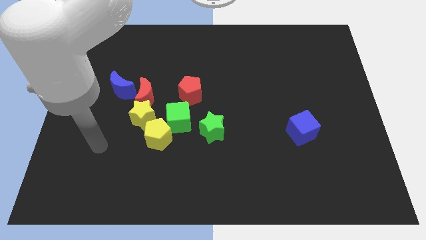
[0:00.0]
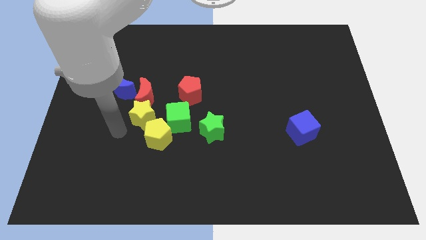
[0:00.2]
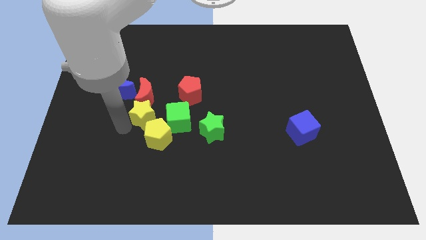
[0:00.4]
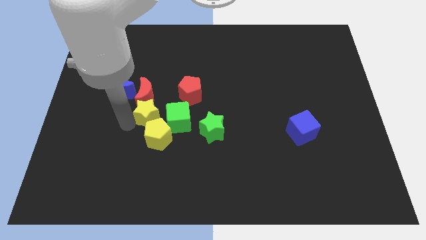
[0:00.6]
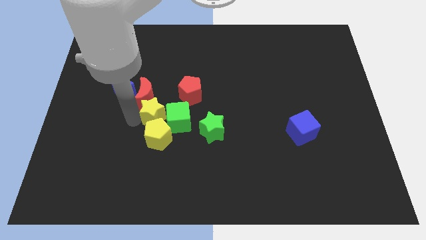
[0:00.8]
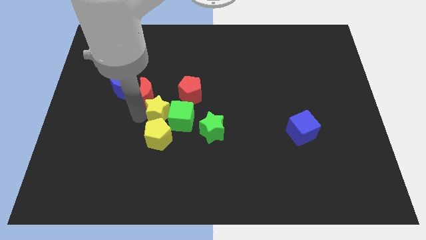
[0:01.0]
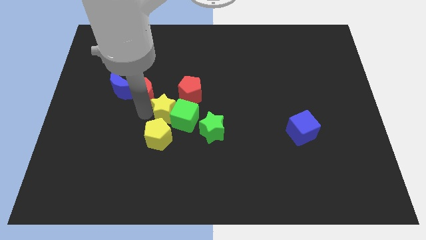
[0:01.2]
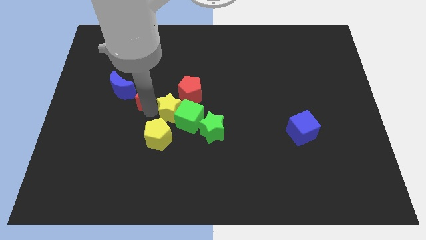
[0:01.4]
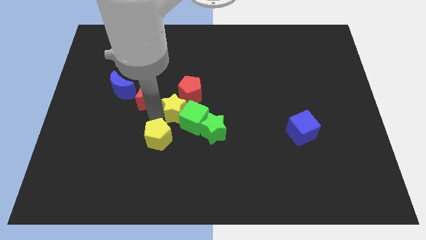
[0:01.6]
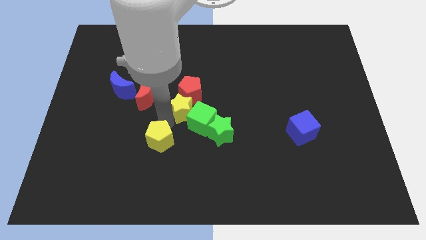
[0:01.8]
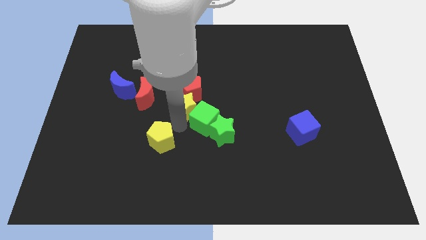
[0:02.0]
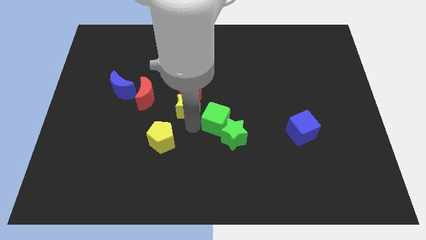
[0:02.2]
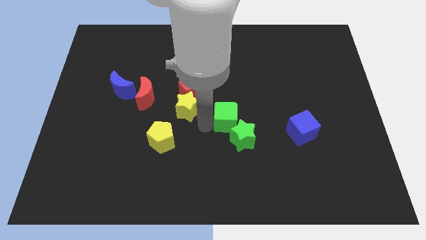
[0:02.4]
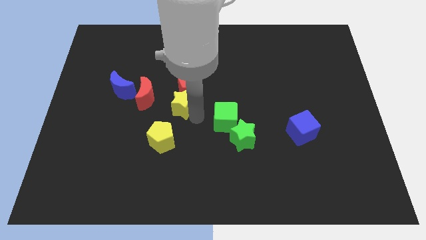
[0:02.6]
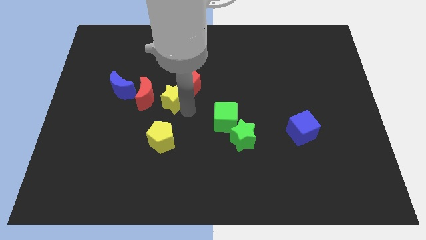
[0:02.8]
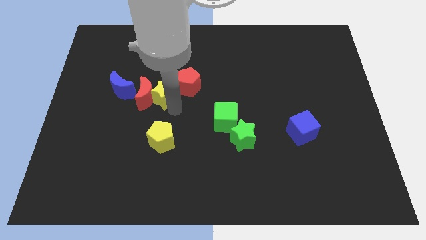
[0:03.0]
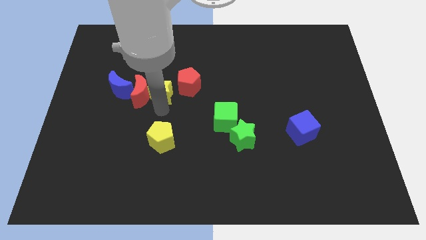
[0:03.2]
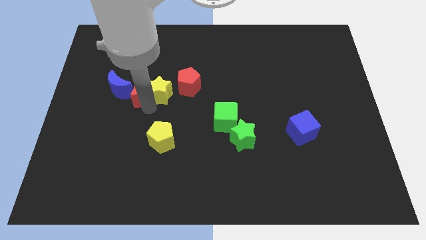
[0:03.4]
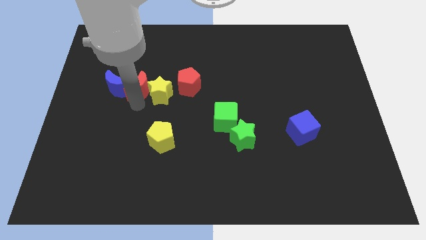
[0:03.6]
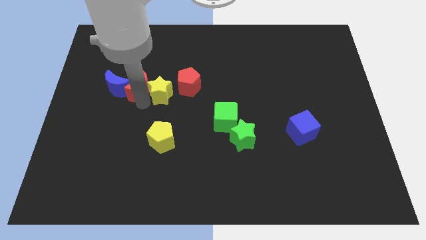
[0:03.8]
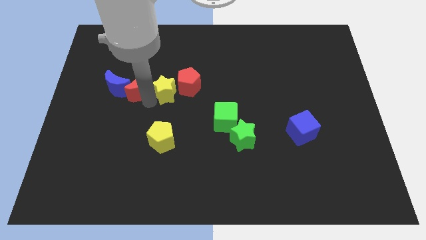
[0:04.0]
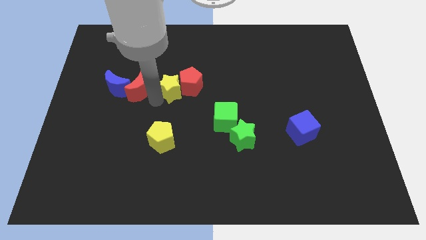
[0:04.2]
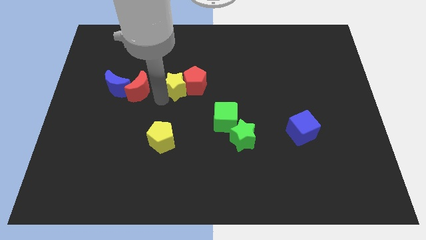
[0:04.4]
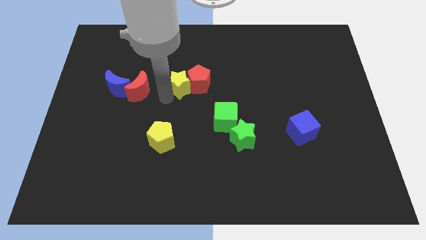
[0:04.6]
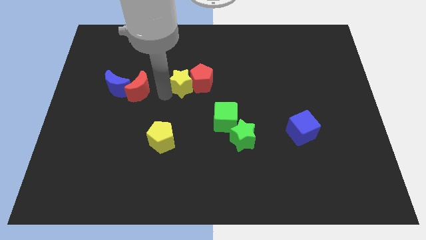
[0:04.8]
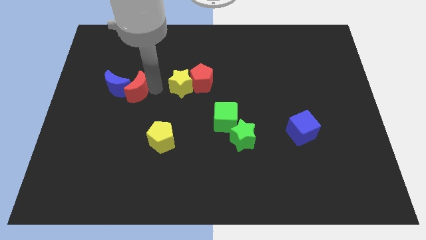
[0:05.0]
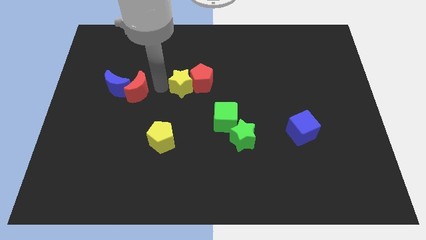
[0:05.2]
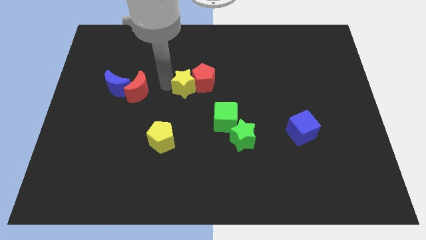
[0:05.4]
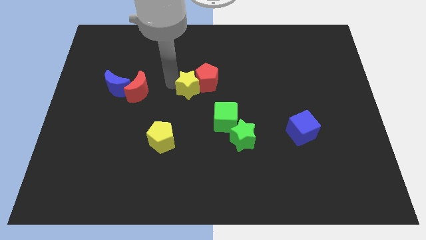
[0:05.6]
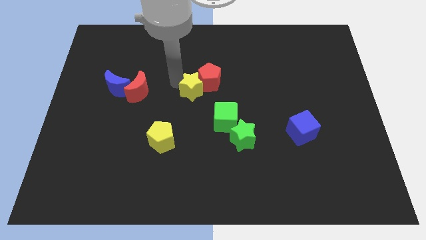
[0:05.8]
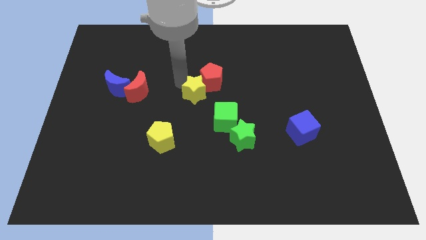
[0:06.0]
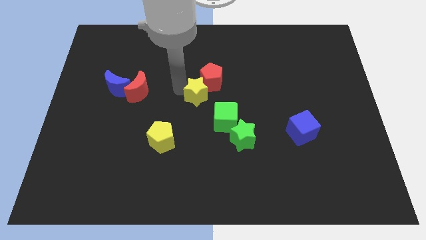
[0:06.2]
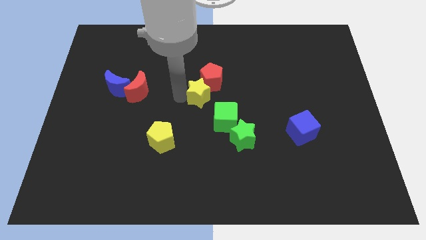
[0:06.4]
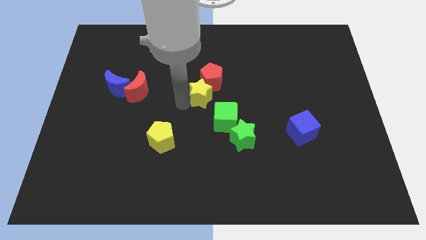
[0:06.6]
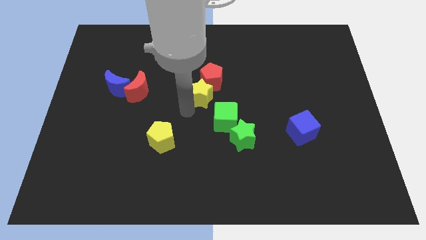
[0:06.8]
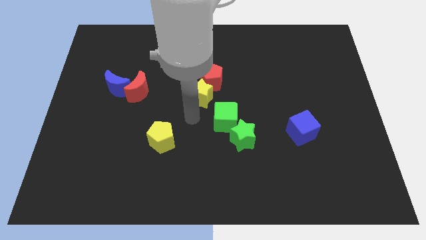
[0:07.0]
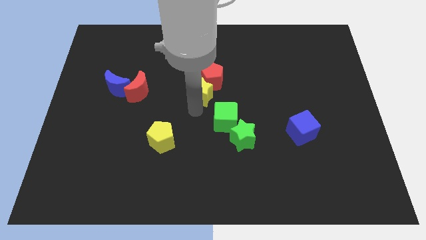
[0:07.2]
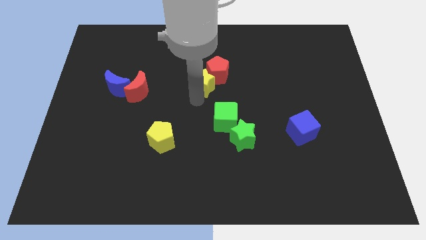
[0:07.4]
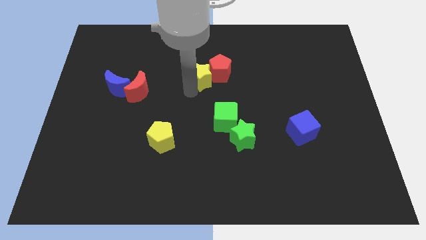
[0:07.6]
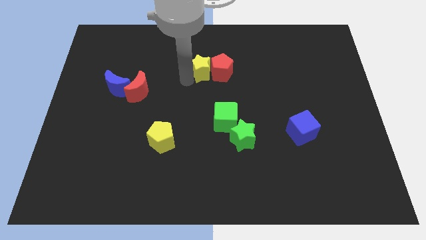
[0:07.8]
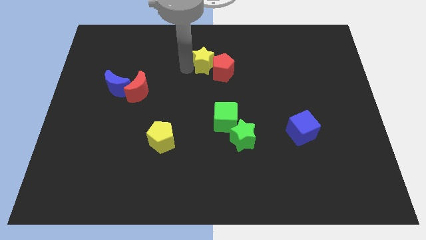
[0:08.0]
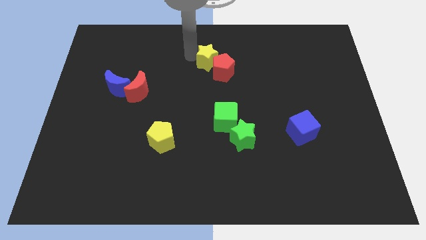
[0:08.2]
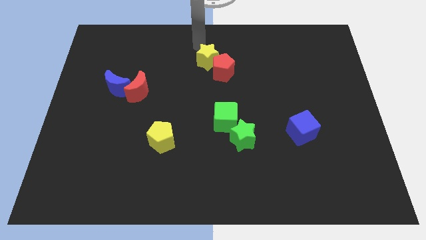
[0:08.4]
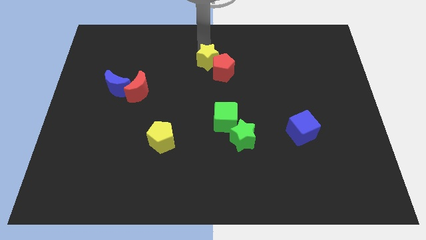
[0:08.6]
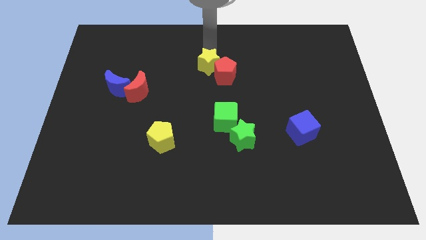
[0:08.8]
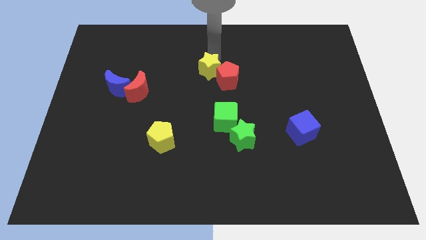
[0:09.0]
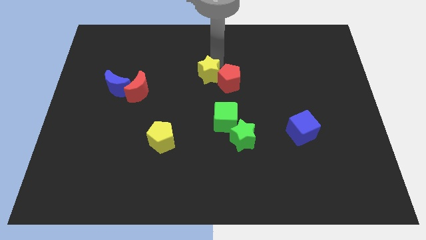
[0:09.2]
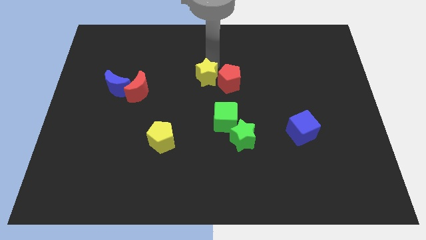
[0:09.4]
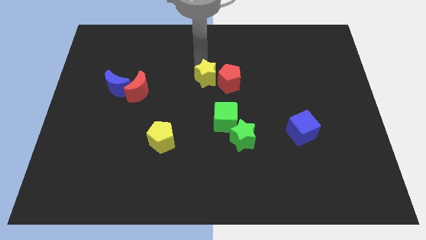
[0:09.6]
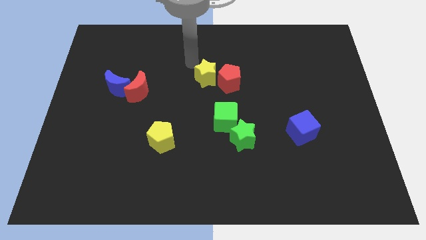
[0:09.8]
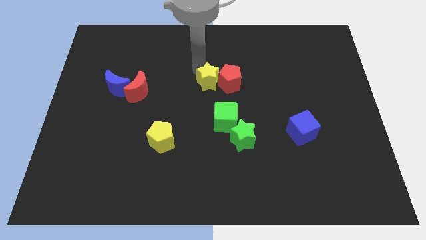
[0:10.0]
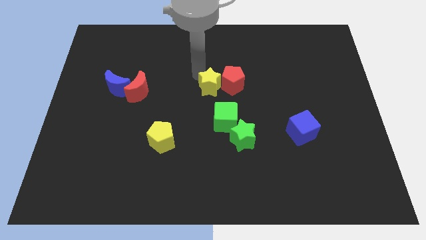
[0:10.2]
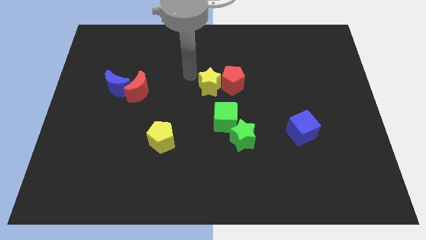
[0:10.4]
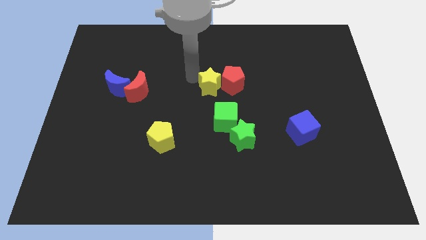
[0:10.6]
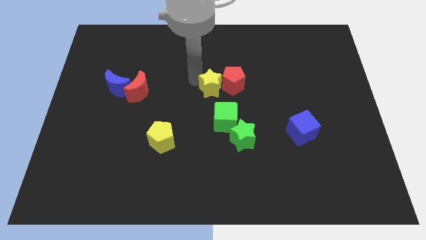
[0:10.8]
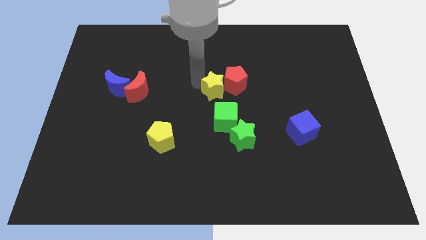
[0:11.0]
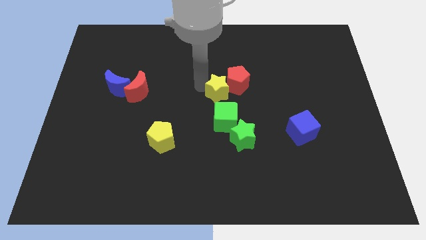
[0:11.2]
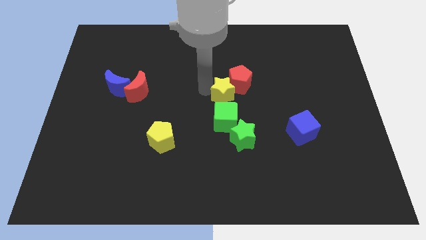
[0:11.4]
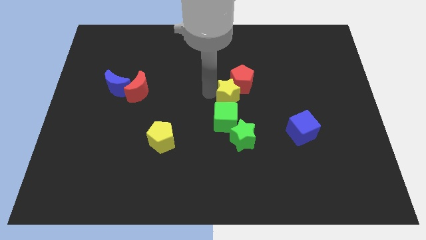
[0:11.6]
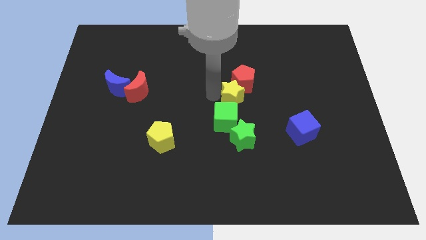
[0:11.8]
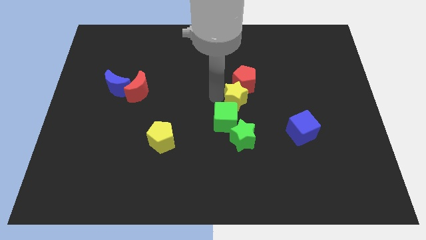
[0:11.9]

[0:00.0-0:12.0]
slide the yellow star right

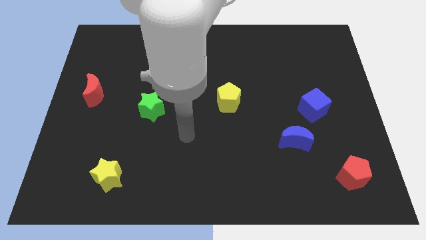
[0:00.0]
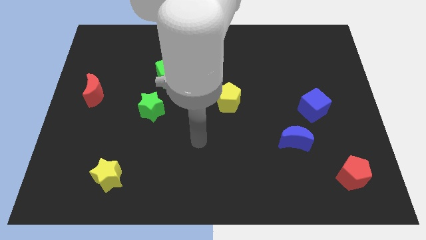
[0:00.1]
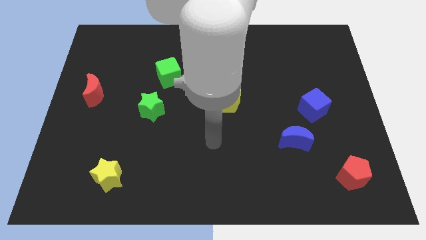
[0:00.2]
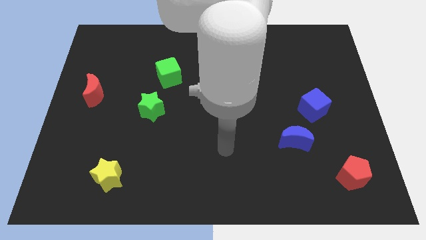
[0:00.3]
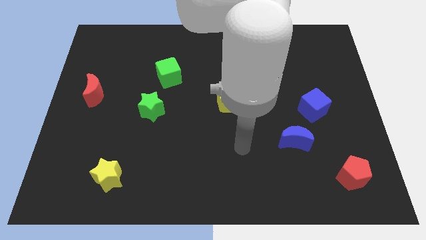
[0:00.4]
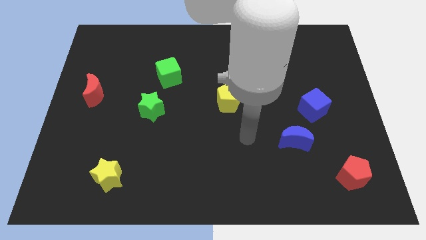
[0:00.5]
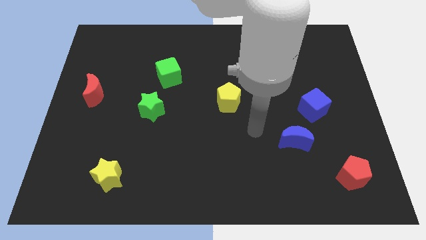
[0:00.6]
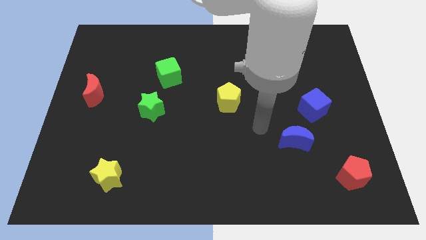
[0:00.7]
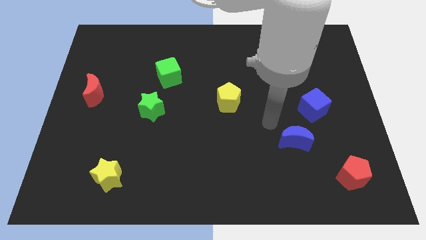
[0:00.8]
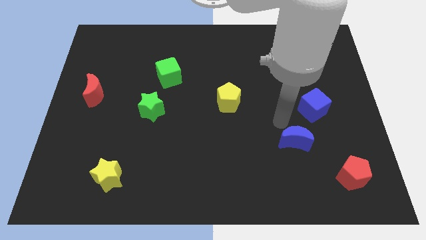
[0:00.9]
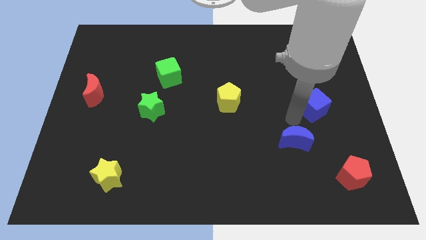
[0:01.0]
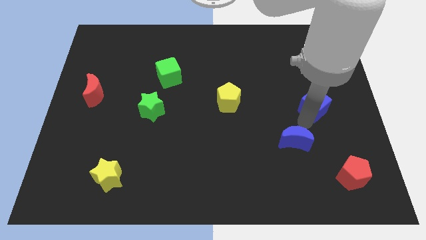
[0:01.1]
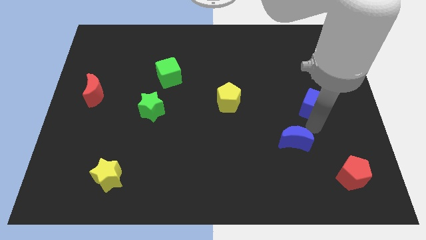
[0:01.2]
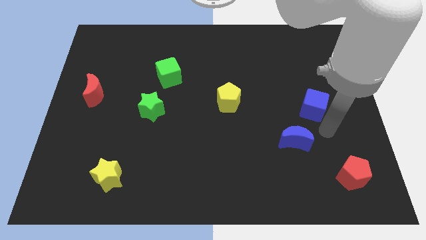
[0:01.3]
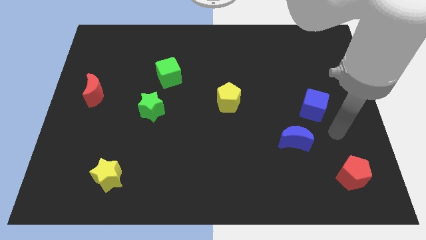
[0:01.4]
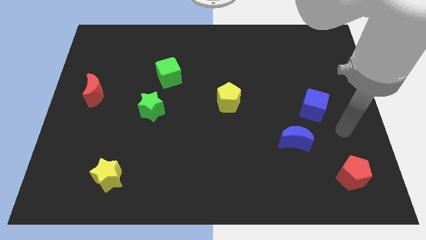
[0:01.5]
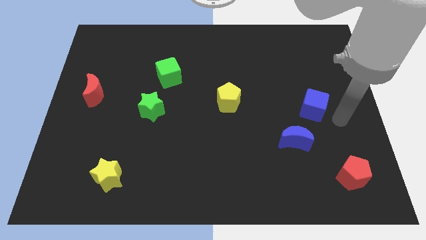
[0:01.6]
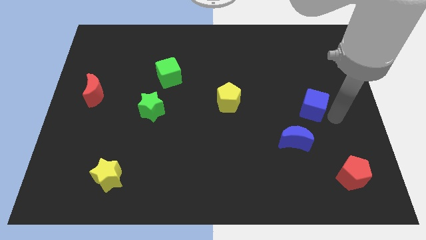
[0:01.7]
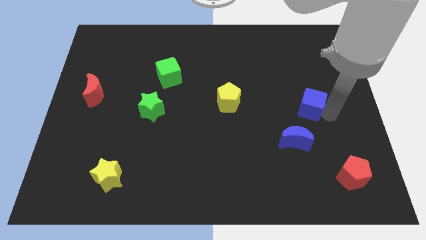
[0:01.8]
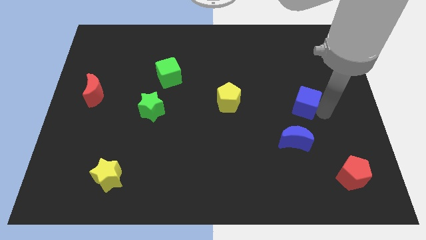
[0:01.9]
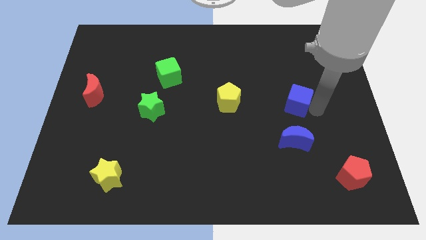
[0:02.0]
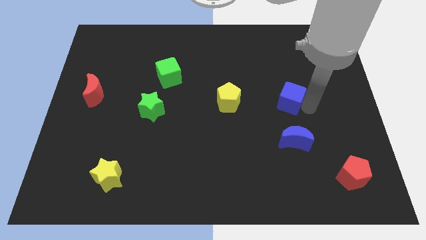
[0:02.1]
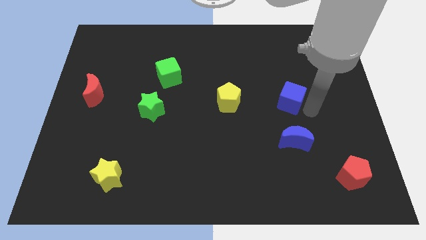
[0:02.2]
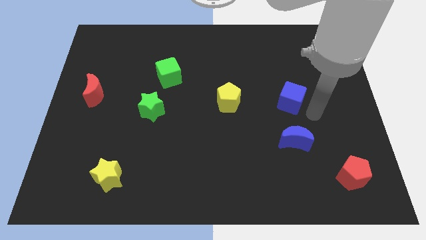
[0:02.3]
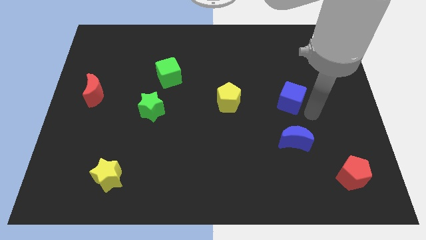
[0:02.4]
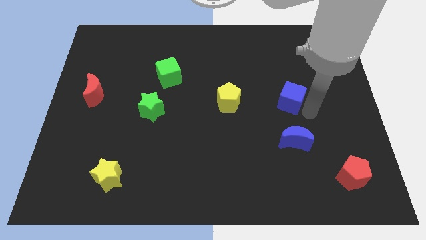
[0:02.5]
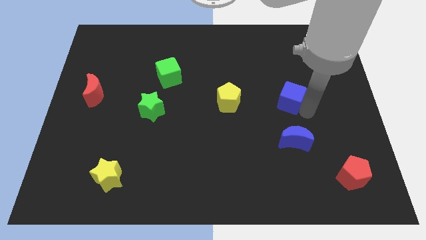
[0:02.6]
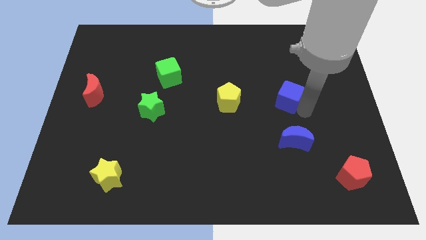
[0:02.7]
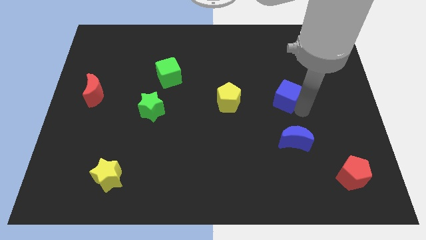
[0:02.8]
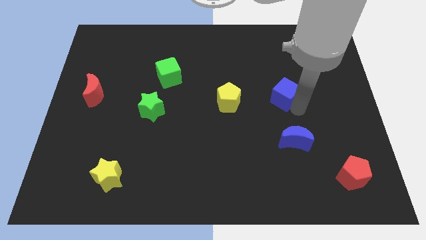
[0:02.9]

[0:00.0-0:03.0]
move the blue cube a bit up and left diagonally
